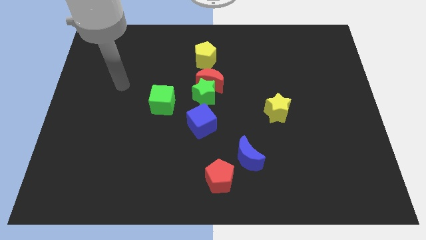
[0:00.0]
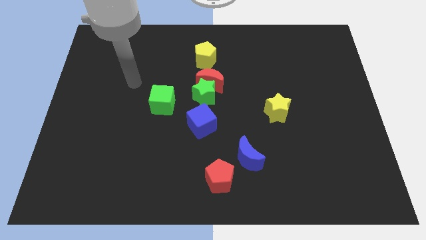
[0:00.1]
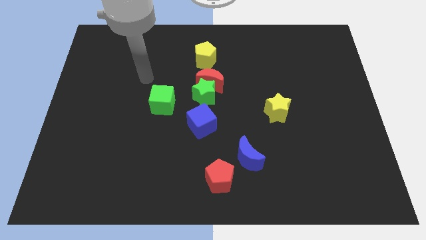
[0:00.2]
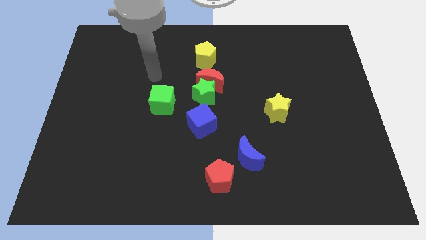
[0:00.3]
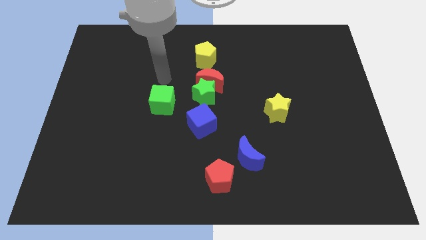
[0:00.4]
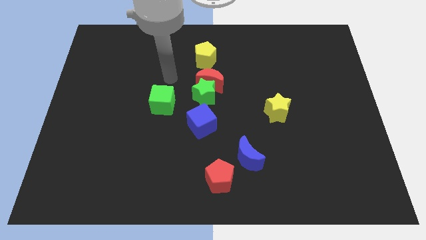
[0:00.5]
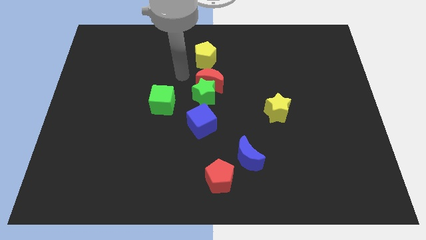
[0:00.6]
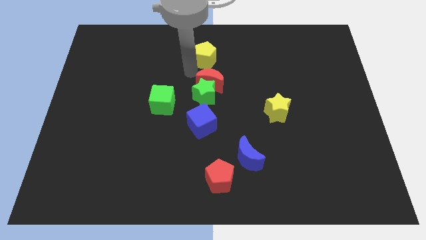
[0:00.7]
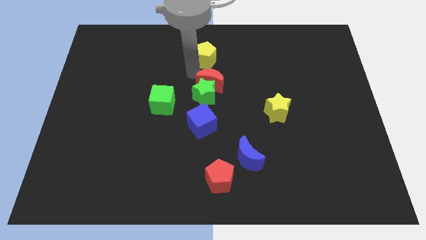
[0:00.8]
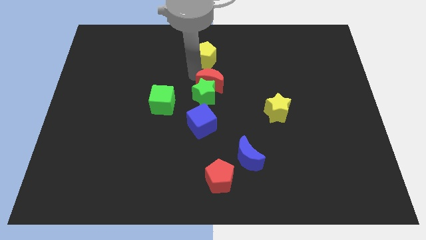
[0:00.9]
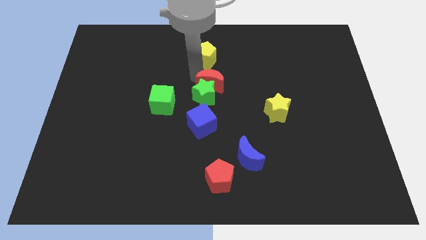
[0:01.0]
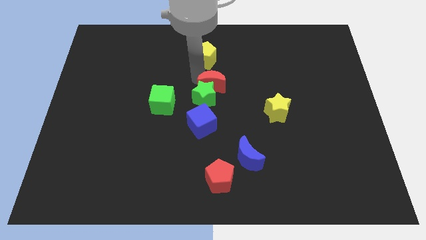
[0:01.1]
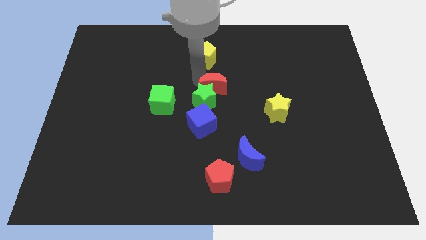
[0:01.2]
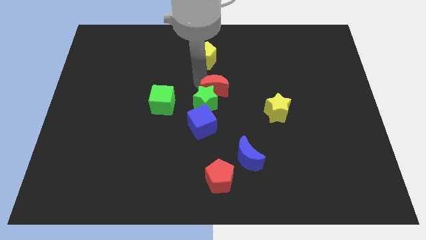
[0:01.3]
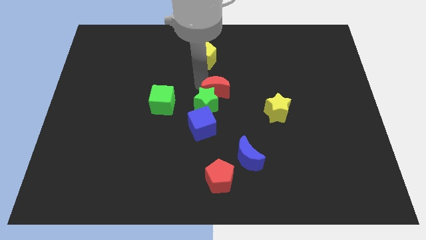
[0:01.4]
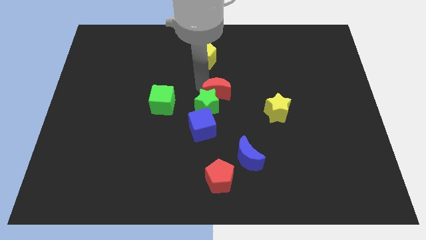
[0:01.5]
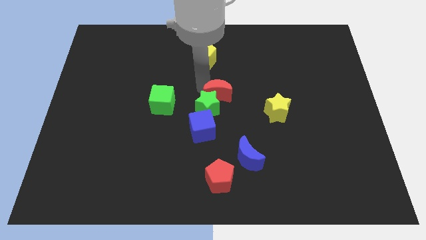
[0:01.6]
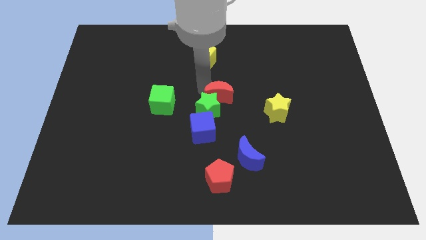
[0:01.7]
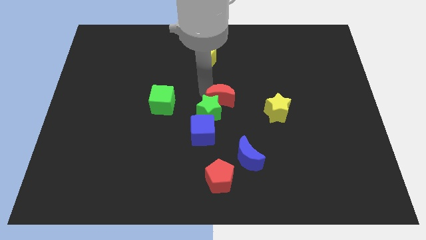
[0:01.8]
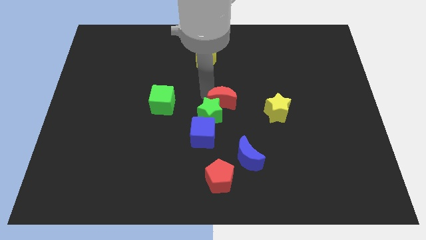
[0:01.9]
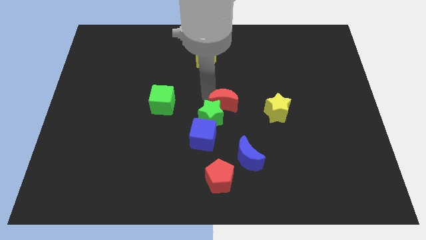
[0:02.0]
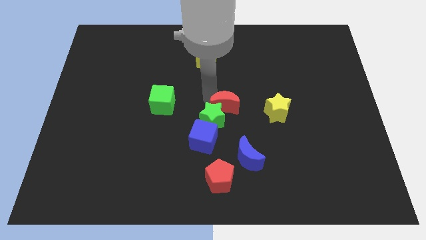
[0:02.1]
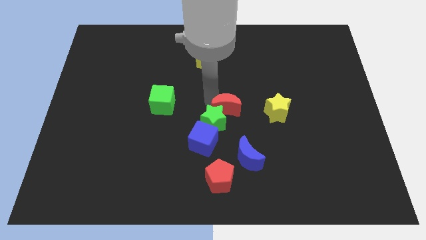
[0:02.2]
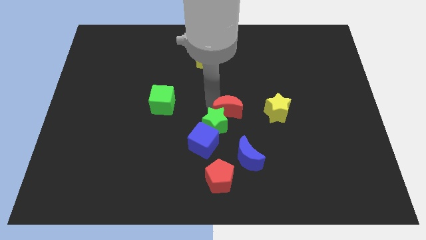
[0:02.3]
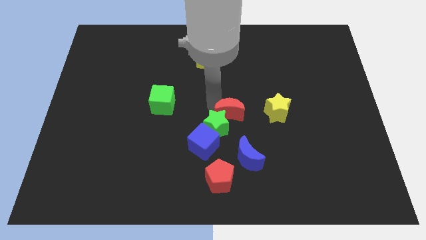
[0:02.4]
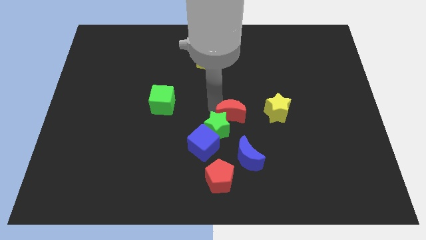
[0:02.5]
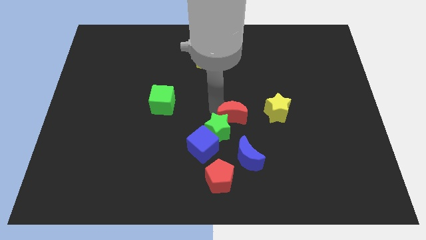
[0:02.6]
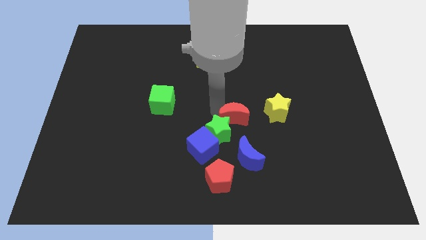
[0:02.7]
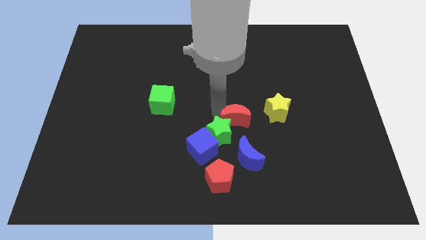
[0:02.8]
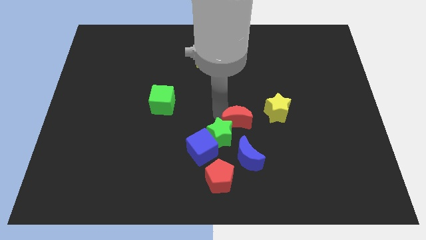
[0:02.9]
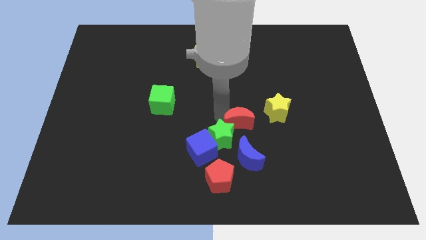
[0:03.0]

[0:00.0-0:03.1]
separate the red moon from the green star and yellow pentagon

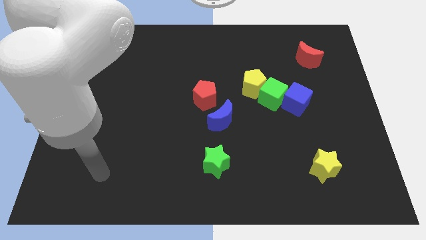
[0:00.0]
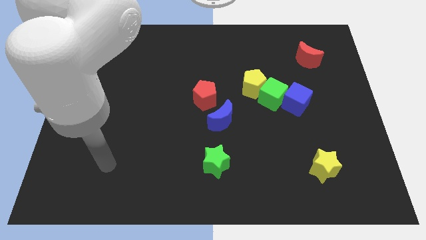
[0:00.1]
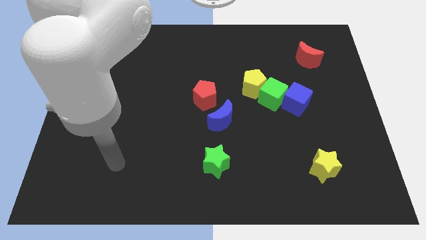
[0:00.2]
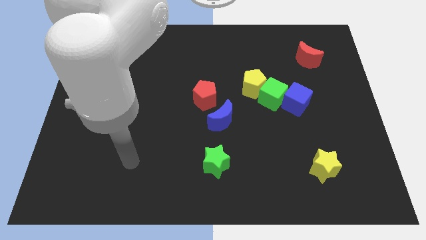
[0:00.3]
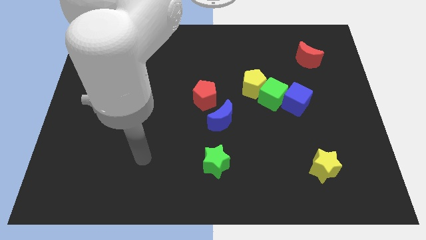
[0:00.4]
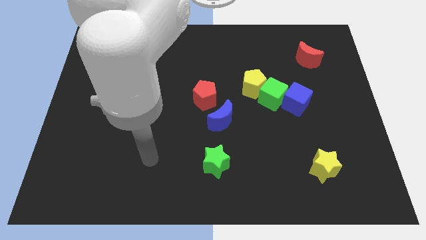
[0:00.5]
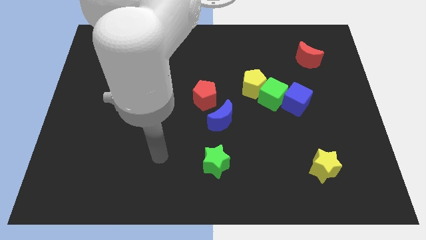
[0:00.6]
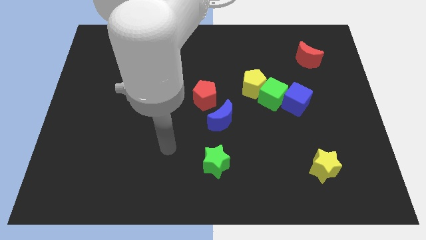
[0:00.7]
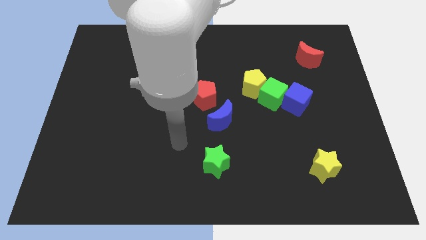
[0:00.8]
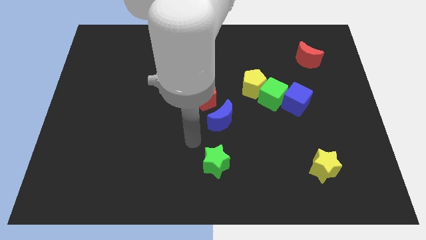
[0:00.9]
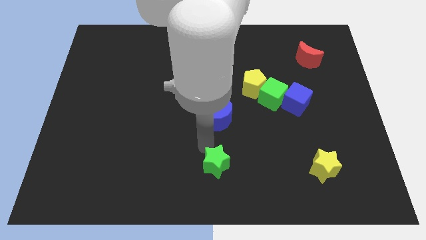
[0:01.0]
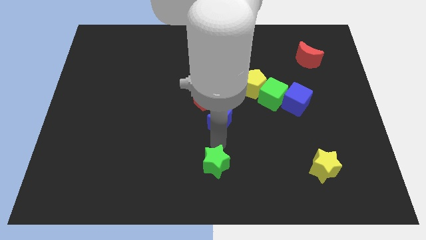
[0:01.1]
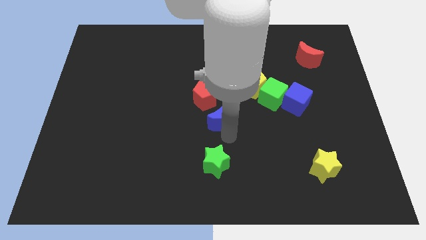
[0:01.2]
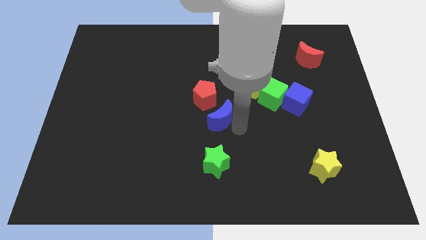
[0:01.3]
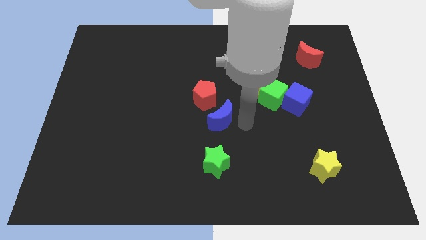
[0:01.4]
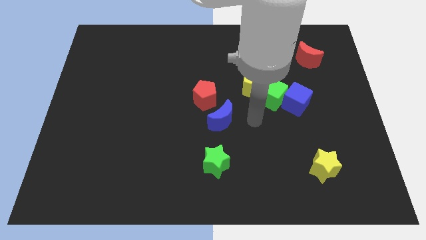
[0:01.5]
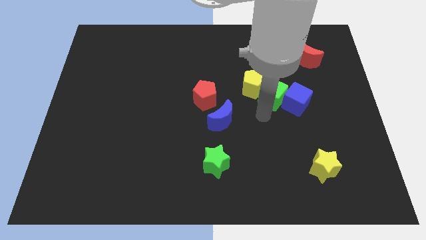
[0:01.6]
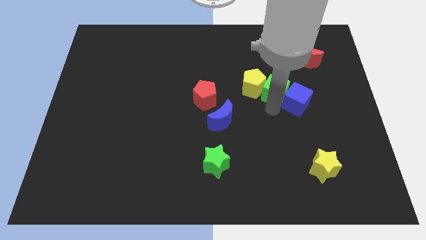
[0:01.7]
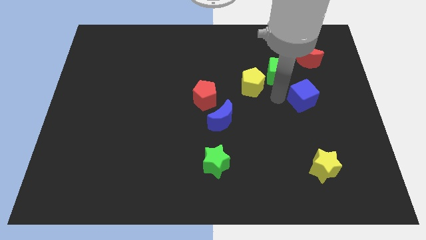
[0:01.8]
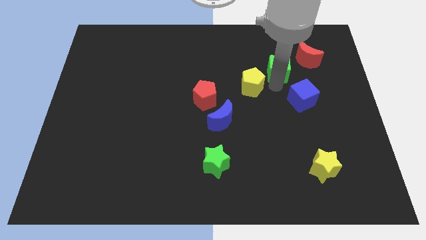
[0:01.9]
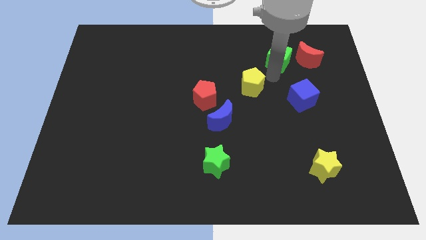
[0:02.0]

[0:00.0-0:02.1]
pull the yellow pentagon apart from the green cube

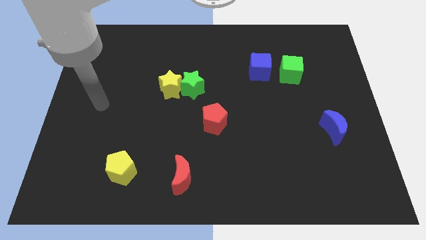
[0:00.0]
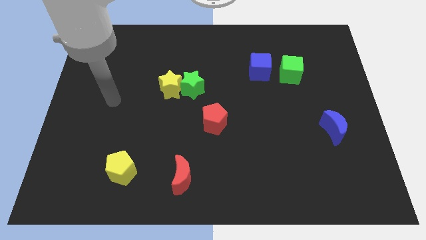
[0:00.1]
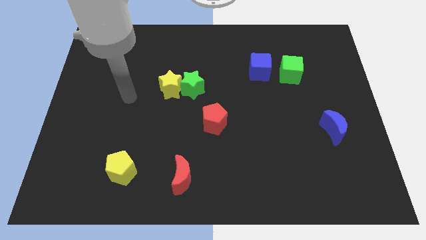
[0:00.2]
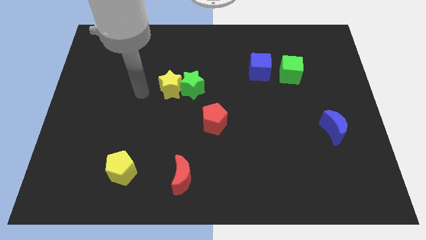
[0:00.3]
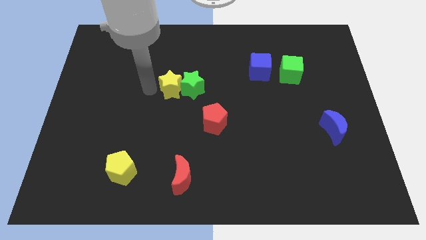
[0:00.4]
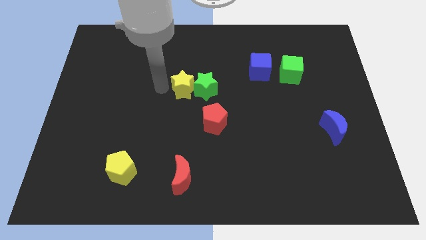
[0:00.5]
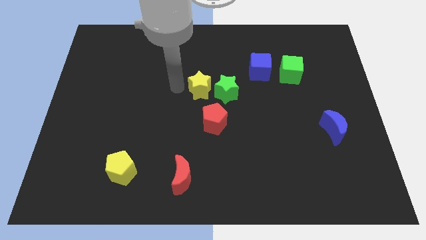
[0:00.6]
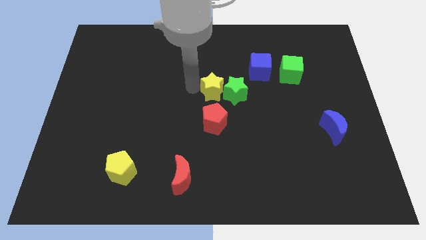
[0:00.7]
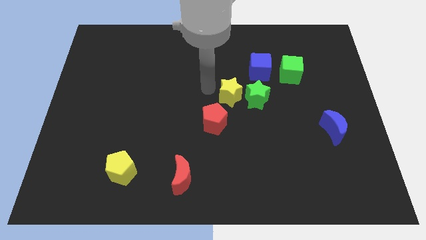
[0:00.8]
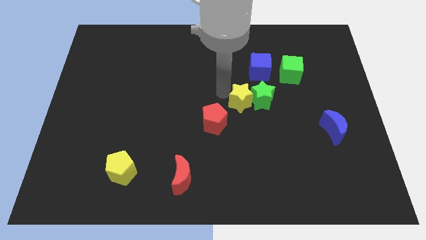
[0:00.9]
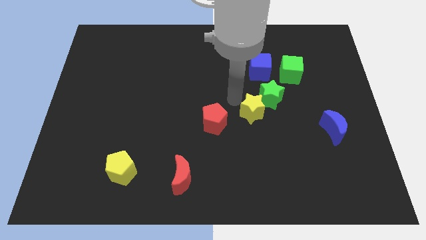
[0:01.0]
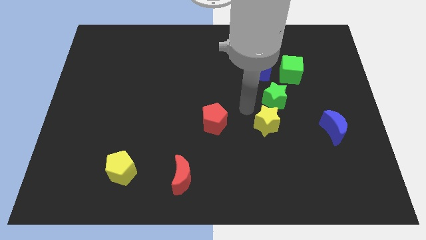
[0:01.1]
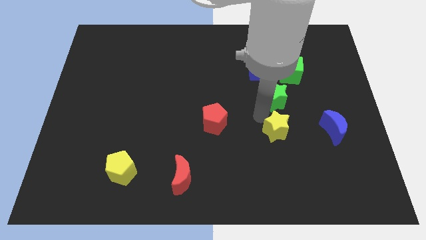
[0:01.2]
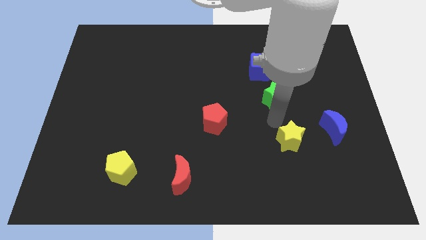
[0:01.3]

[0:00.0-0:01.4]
move the green star away from the yellow star

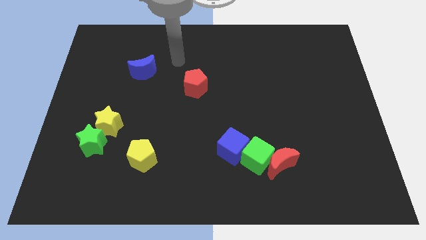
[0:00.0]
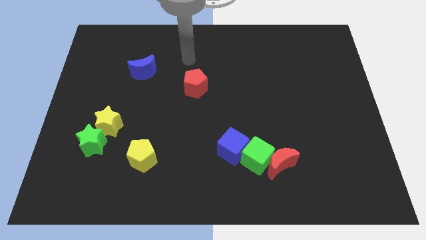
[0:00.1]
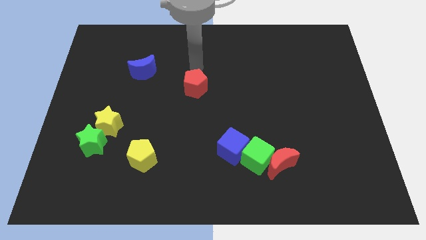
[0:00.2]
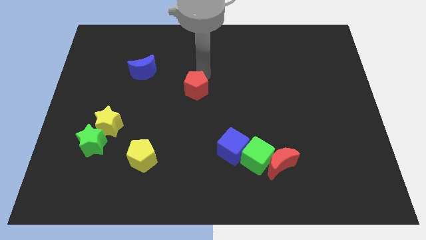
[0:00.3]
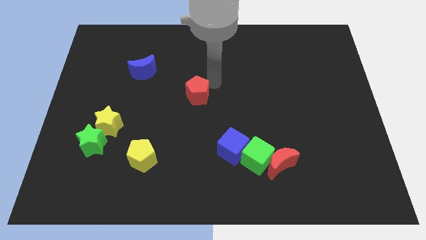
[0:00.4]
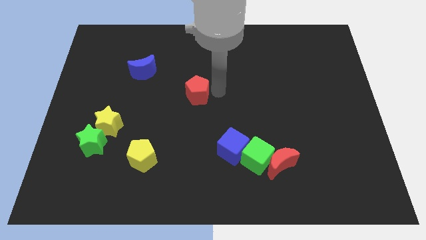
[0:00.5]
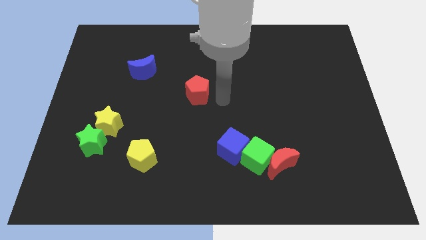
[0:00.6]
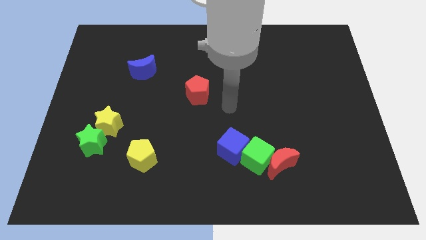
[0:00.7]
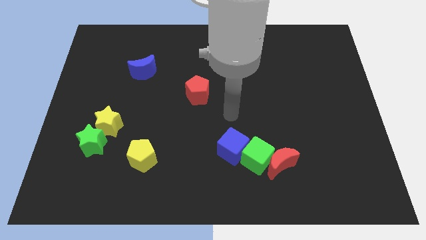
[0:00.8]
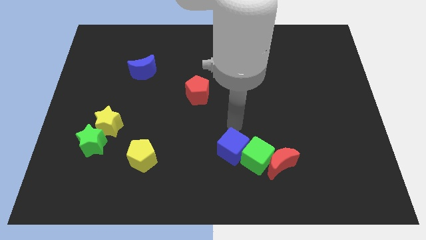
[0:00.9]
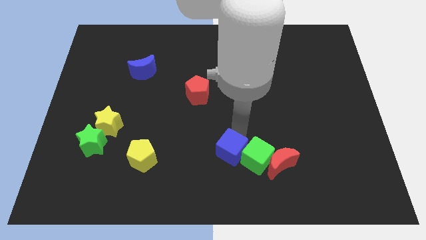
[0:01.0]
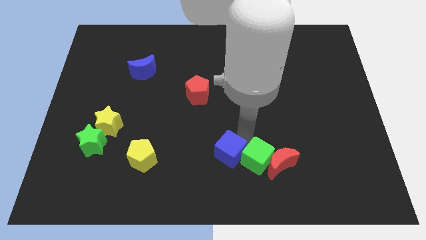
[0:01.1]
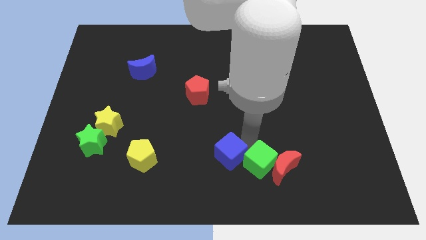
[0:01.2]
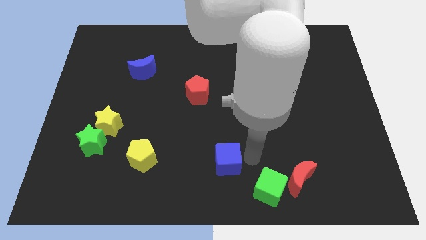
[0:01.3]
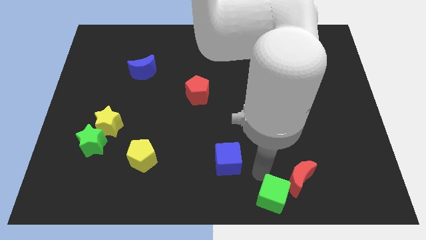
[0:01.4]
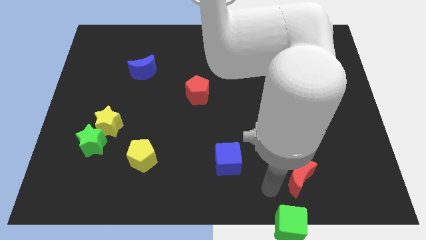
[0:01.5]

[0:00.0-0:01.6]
separate the red moon from the green cube

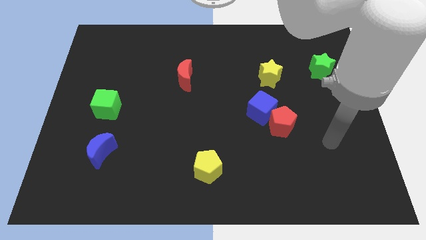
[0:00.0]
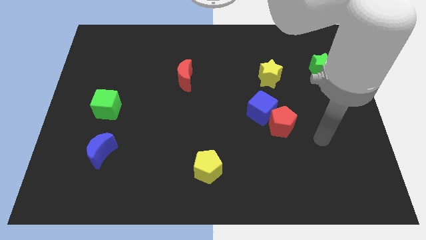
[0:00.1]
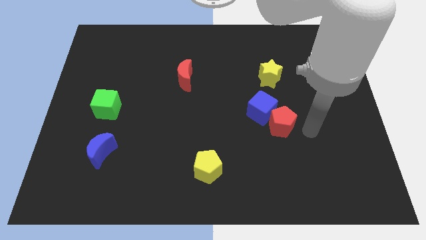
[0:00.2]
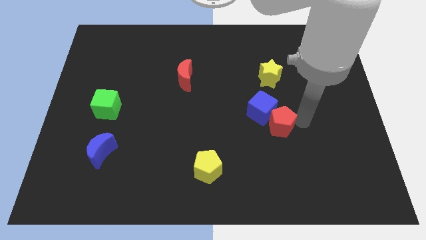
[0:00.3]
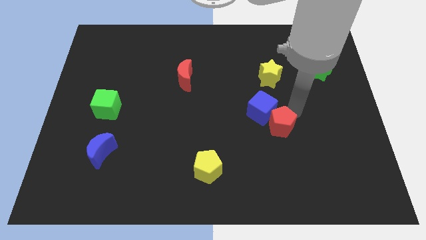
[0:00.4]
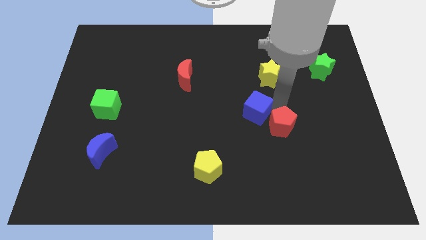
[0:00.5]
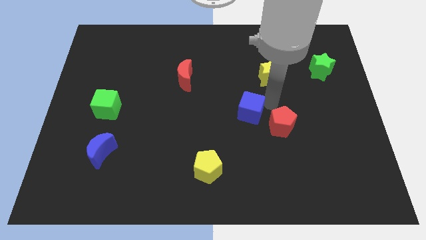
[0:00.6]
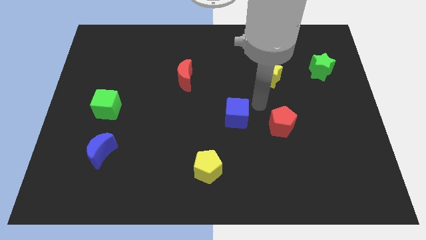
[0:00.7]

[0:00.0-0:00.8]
pull the red pentagon apart from the blue cube

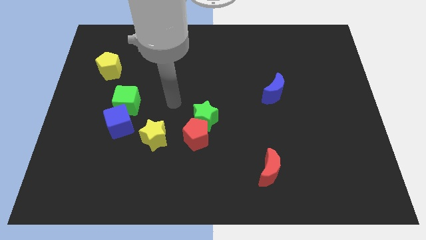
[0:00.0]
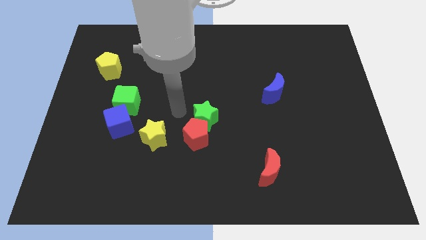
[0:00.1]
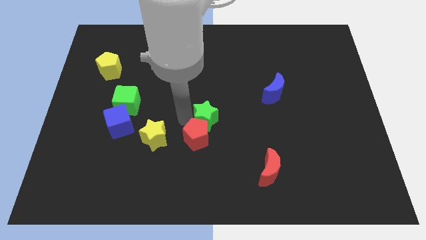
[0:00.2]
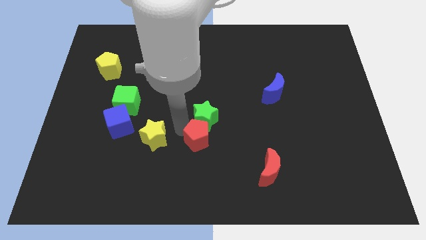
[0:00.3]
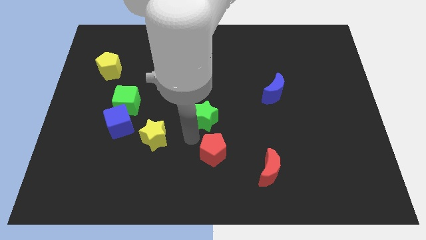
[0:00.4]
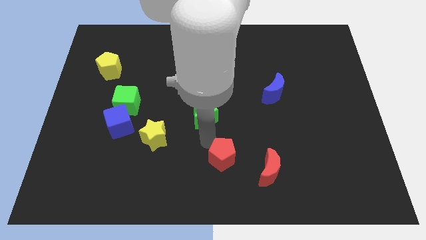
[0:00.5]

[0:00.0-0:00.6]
pull the green star apart from the red pentagon
